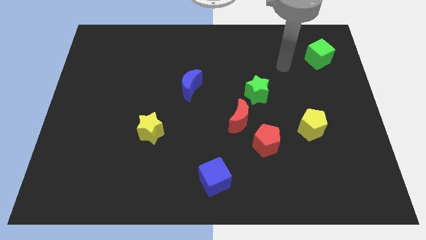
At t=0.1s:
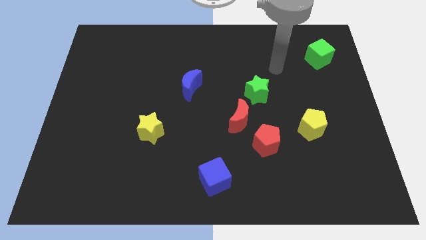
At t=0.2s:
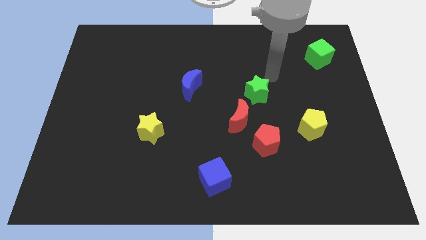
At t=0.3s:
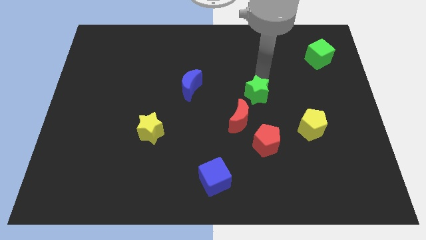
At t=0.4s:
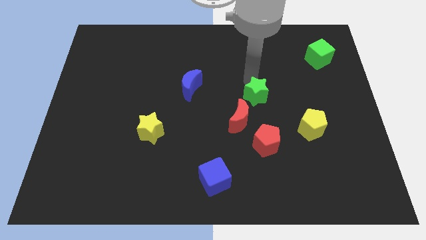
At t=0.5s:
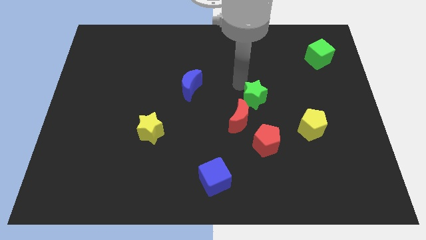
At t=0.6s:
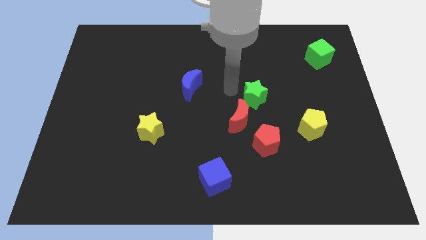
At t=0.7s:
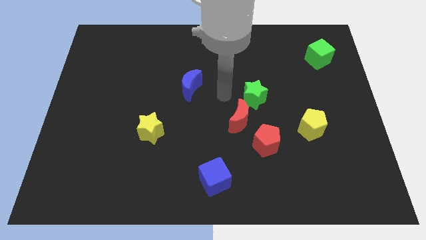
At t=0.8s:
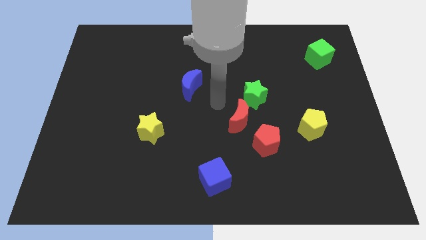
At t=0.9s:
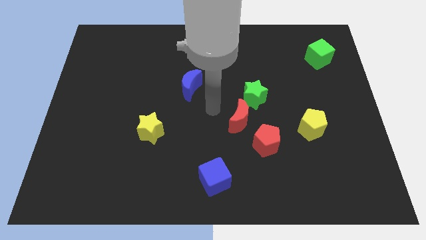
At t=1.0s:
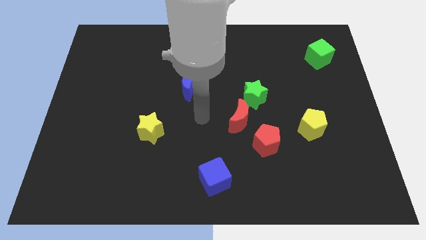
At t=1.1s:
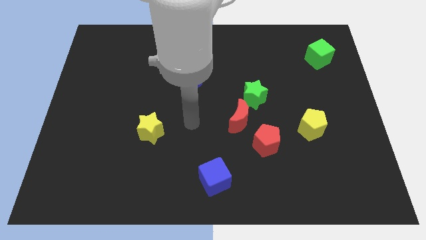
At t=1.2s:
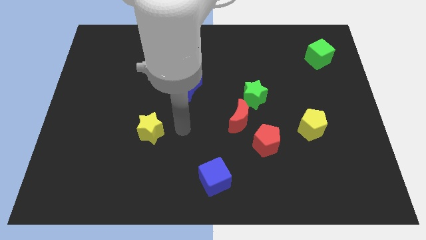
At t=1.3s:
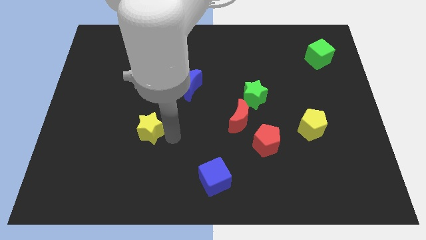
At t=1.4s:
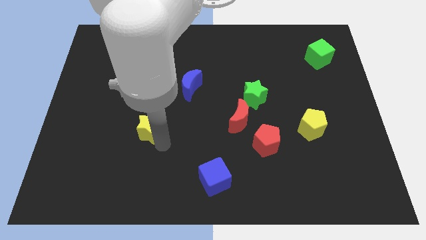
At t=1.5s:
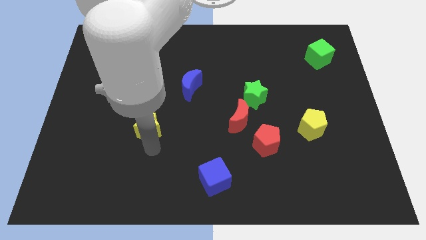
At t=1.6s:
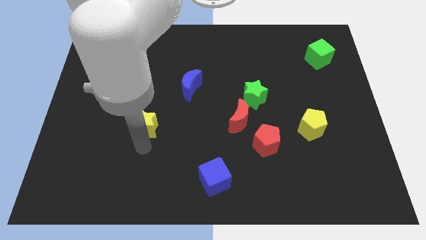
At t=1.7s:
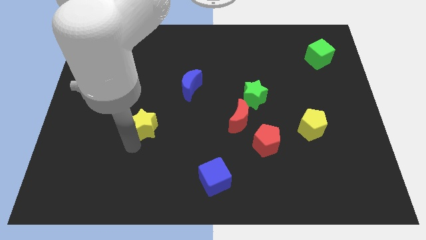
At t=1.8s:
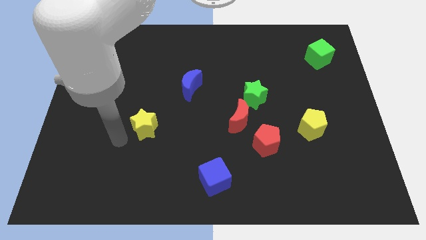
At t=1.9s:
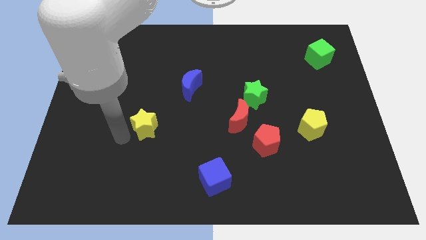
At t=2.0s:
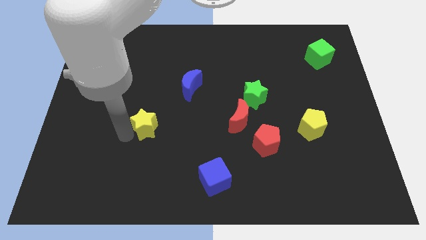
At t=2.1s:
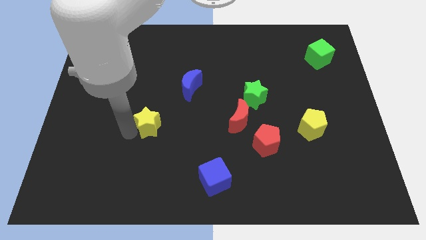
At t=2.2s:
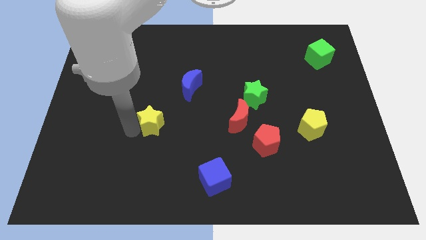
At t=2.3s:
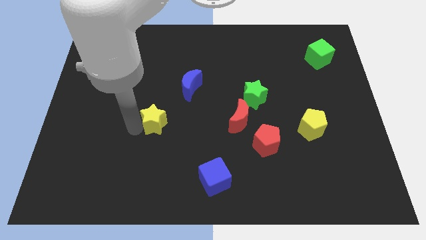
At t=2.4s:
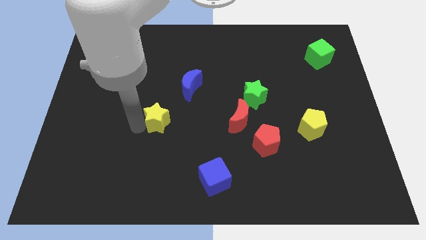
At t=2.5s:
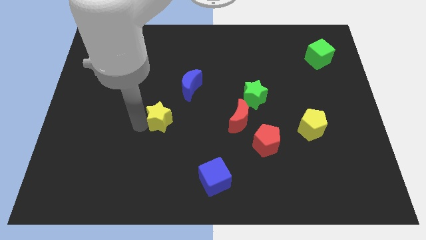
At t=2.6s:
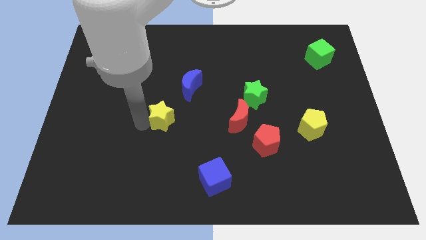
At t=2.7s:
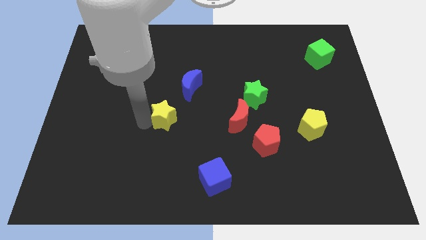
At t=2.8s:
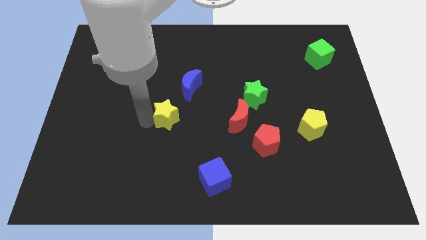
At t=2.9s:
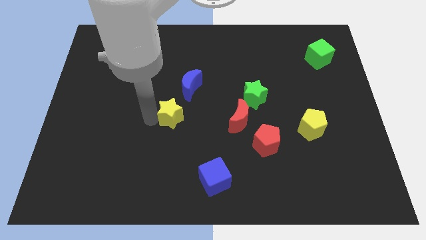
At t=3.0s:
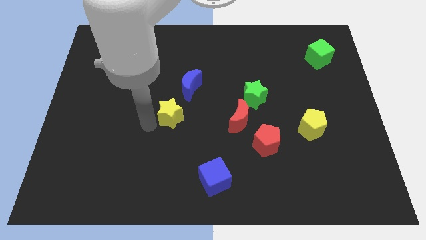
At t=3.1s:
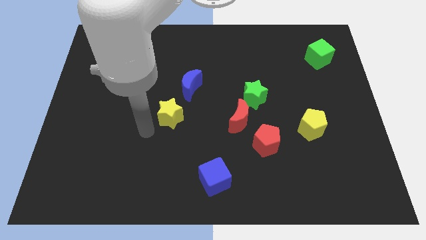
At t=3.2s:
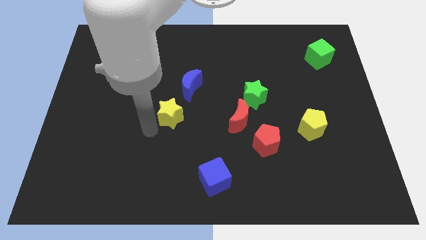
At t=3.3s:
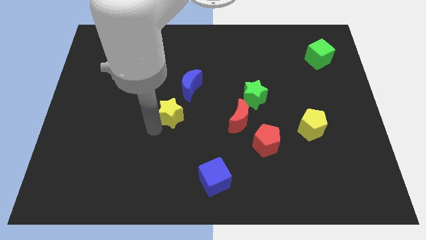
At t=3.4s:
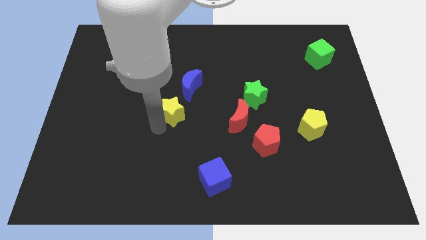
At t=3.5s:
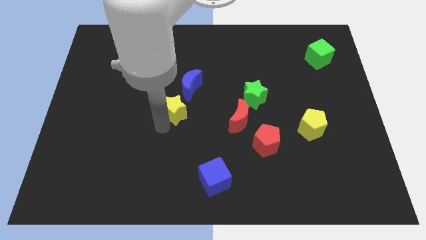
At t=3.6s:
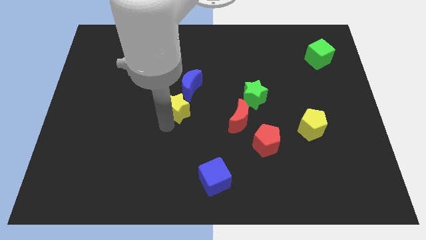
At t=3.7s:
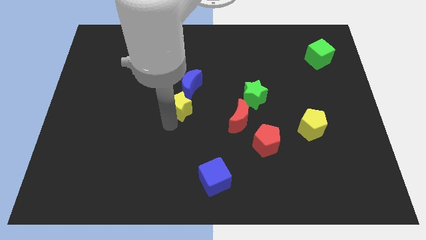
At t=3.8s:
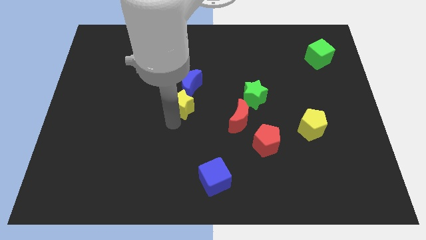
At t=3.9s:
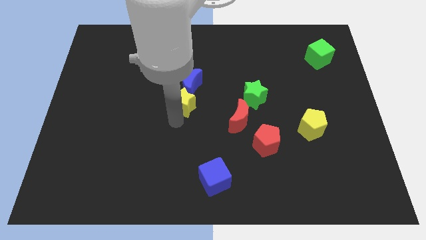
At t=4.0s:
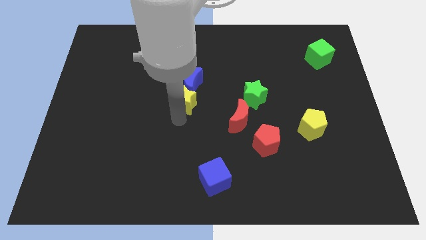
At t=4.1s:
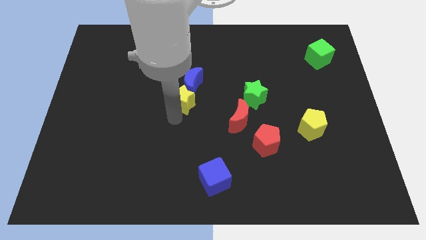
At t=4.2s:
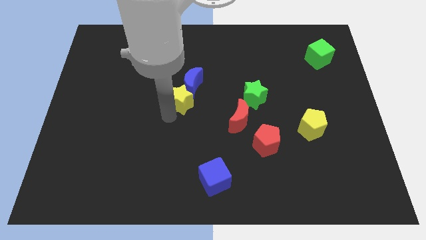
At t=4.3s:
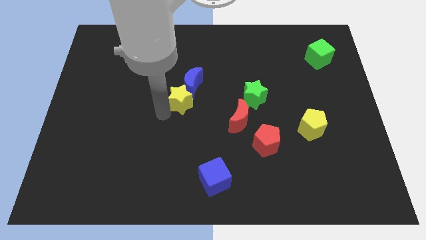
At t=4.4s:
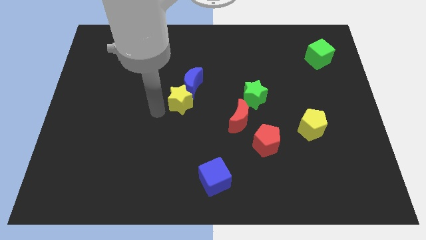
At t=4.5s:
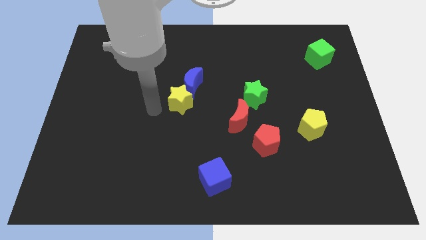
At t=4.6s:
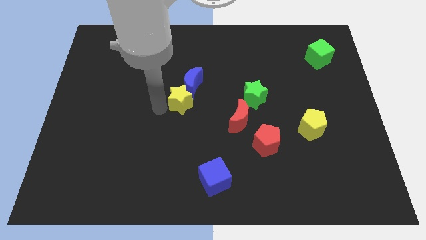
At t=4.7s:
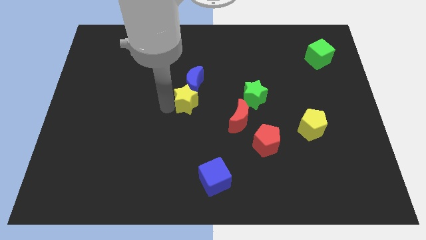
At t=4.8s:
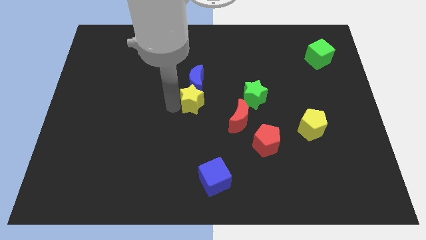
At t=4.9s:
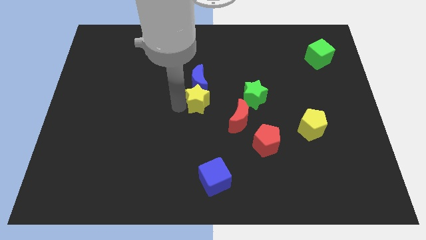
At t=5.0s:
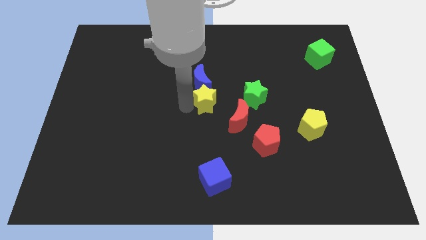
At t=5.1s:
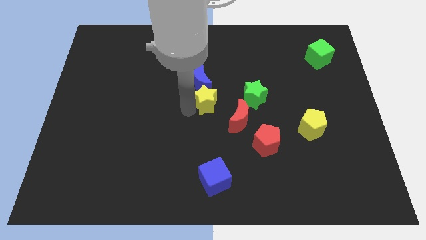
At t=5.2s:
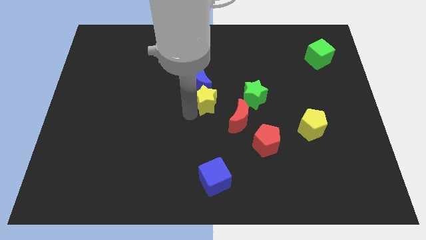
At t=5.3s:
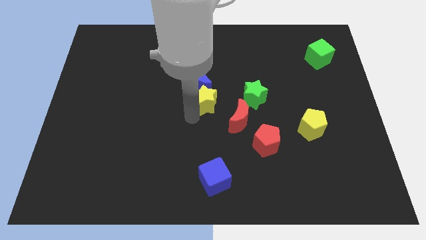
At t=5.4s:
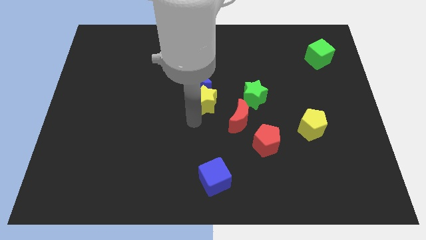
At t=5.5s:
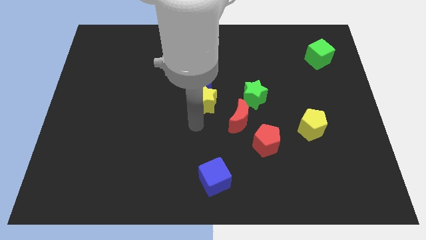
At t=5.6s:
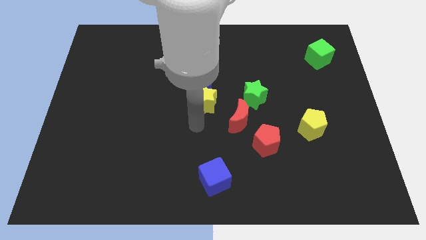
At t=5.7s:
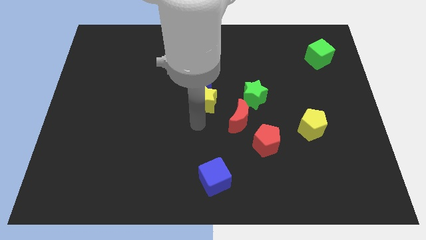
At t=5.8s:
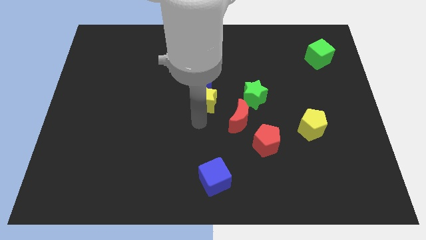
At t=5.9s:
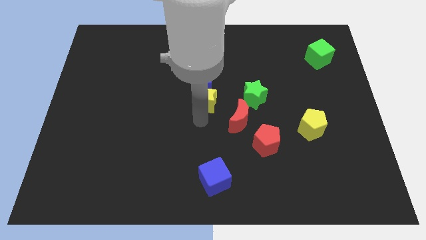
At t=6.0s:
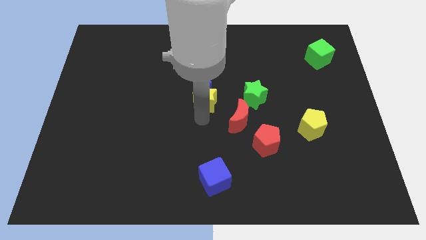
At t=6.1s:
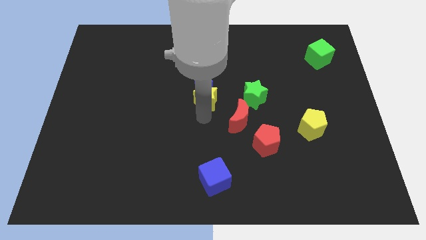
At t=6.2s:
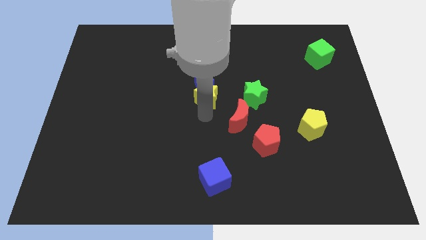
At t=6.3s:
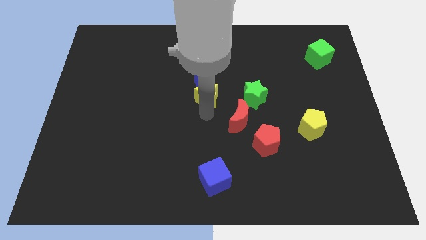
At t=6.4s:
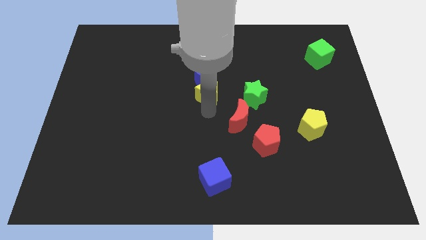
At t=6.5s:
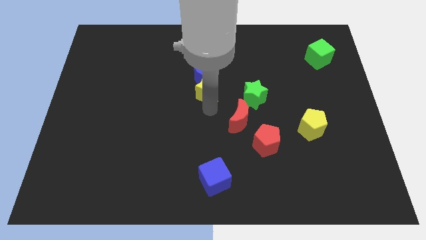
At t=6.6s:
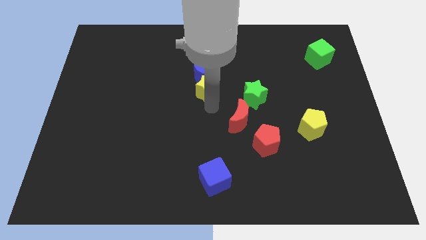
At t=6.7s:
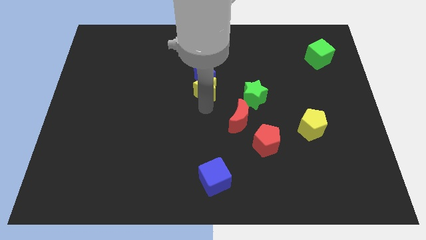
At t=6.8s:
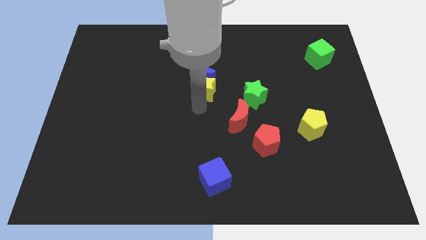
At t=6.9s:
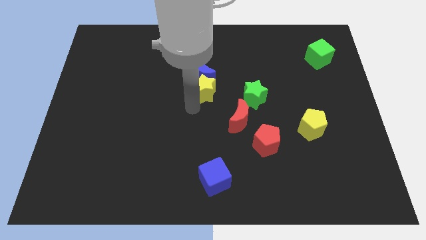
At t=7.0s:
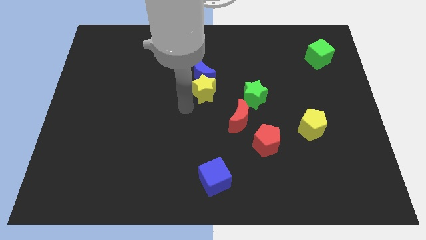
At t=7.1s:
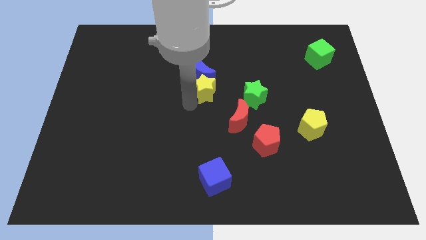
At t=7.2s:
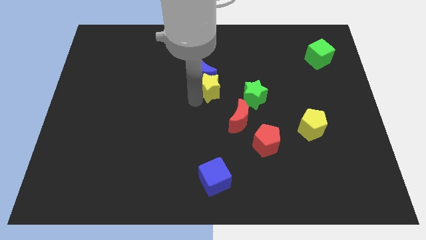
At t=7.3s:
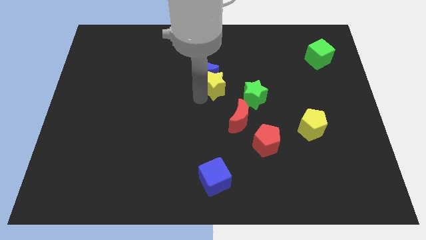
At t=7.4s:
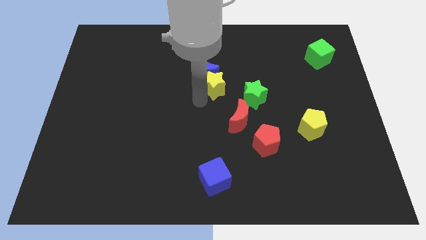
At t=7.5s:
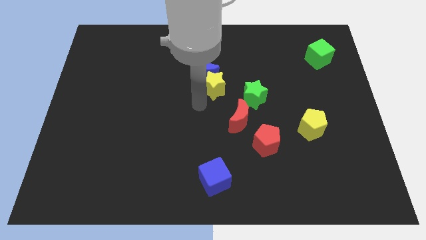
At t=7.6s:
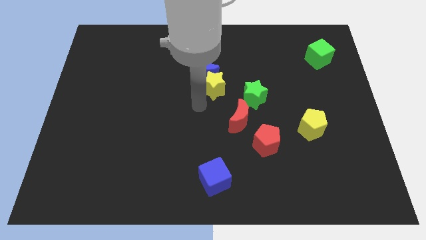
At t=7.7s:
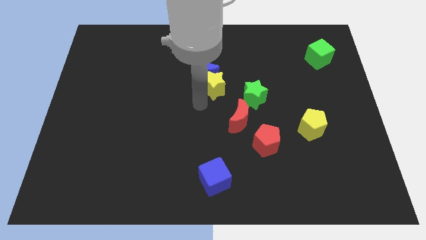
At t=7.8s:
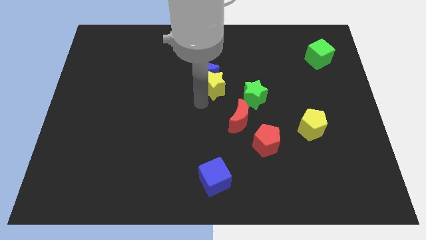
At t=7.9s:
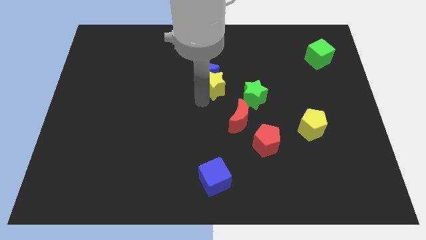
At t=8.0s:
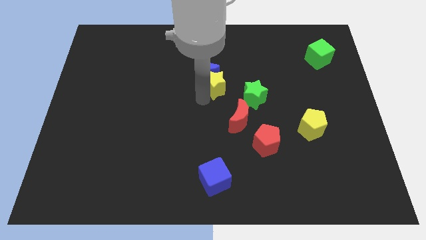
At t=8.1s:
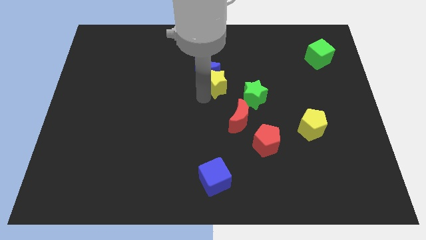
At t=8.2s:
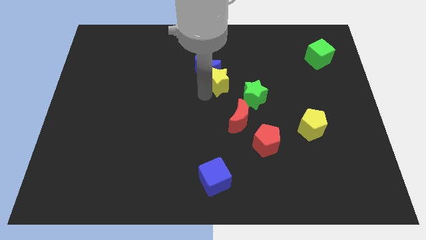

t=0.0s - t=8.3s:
move the yellow star upwards and right diagonally
